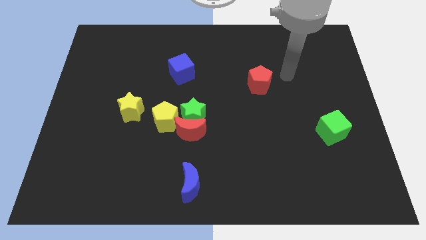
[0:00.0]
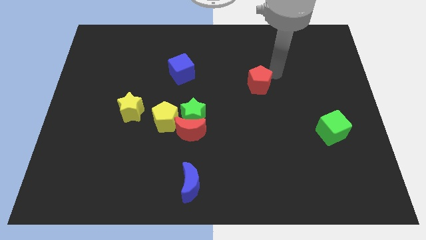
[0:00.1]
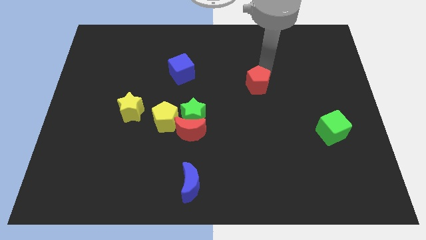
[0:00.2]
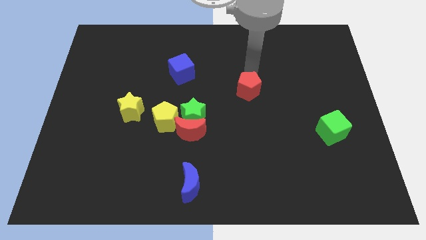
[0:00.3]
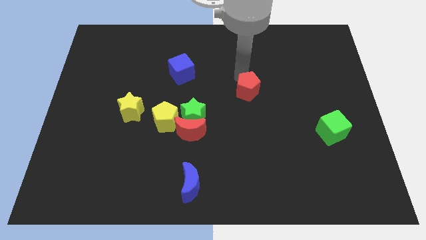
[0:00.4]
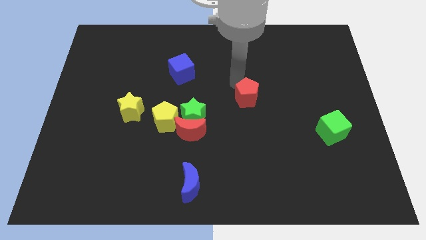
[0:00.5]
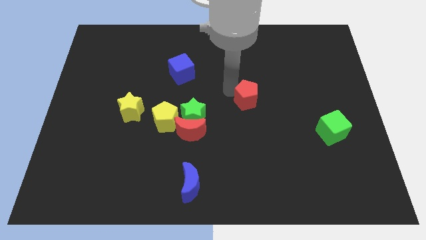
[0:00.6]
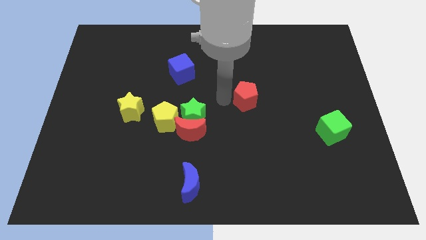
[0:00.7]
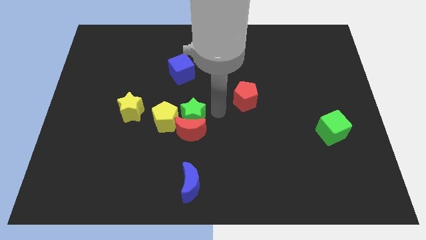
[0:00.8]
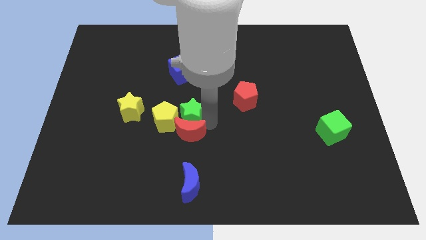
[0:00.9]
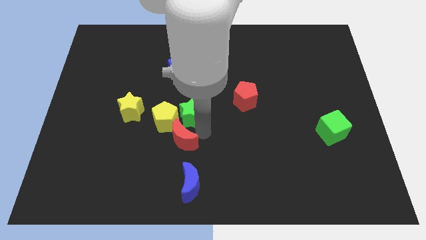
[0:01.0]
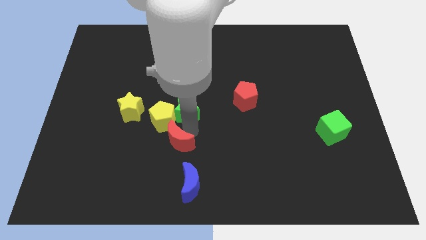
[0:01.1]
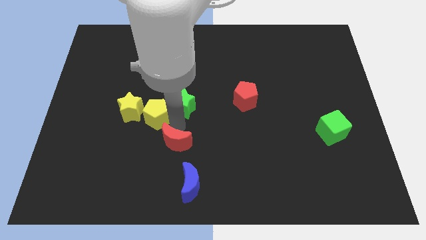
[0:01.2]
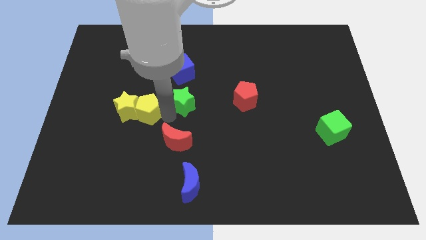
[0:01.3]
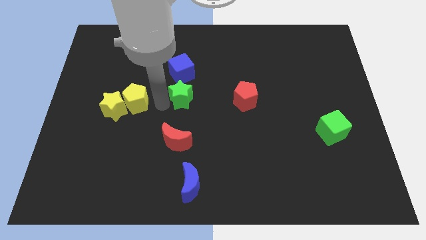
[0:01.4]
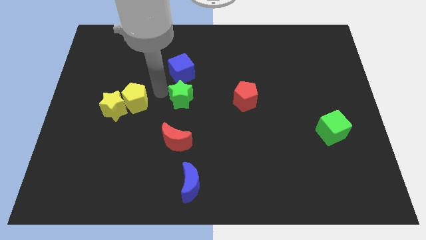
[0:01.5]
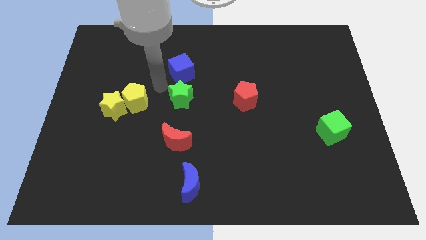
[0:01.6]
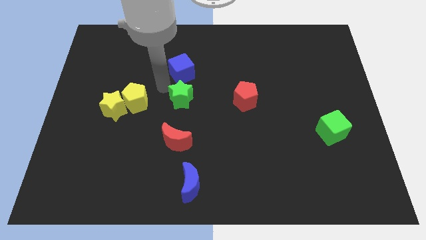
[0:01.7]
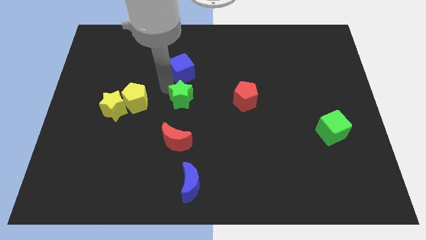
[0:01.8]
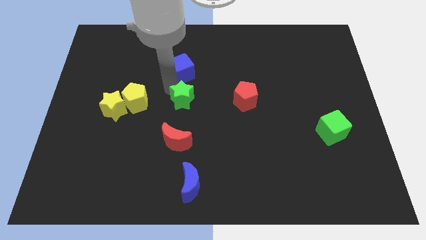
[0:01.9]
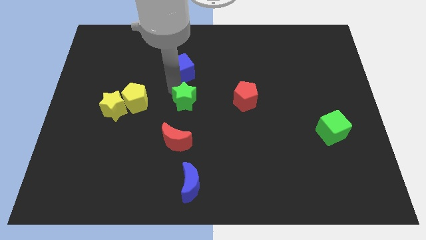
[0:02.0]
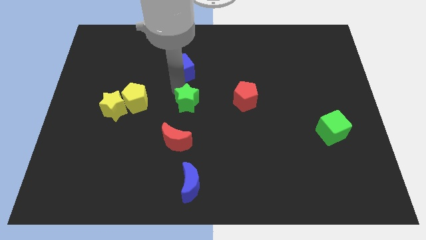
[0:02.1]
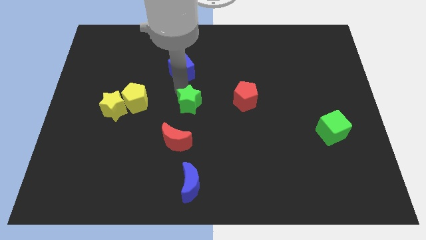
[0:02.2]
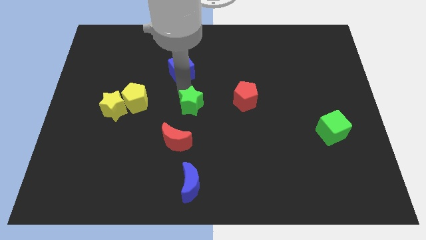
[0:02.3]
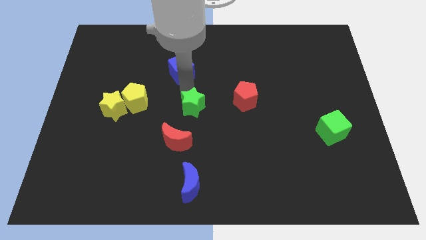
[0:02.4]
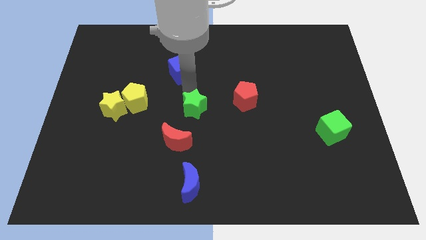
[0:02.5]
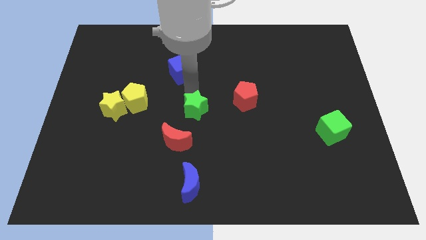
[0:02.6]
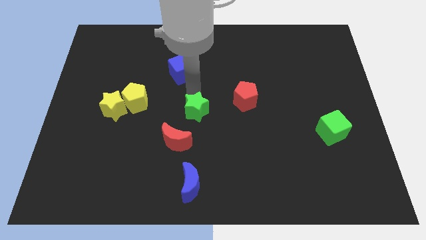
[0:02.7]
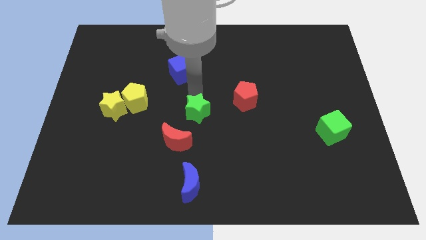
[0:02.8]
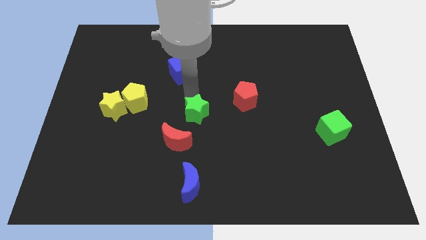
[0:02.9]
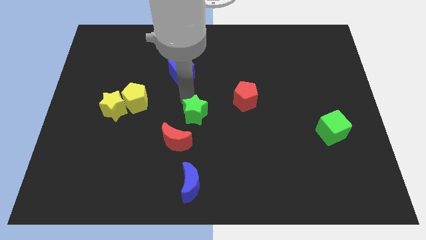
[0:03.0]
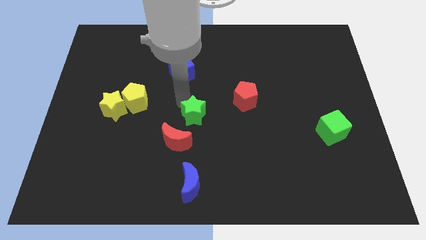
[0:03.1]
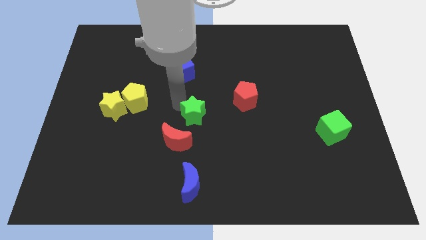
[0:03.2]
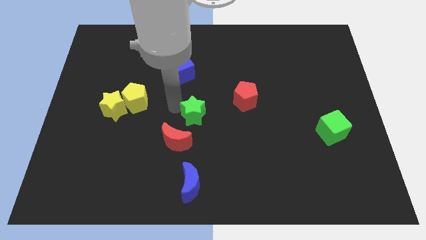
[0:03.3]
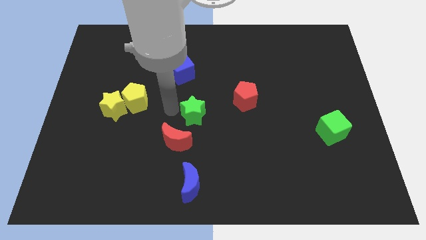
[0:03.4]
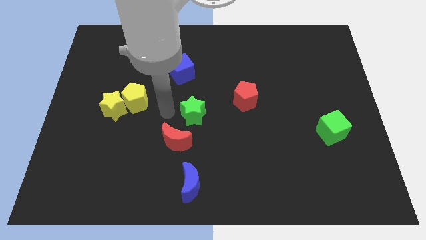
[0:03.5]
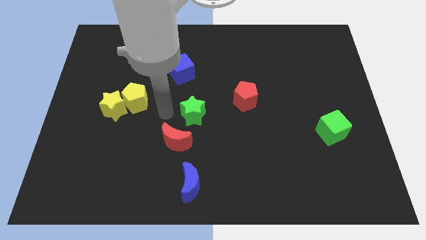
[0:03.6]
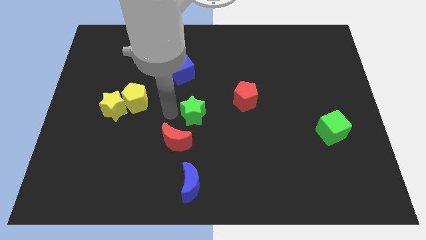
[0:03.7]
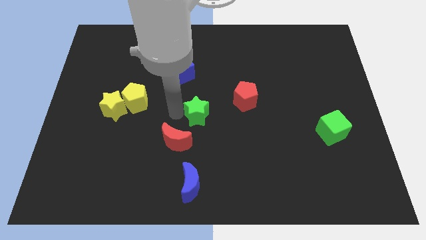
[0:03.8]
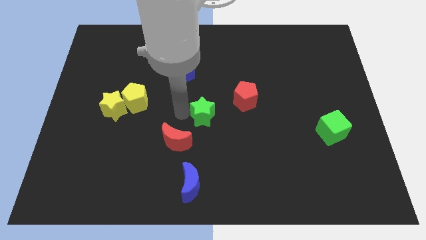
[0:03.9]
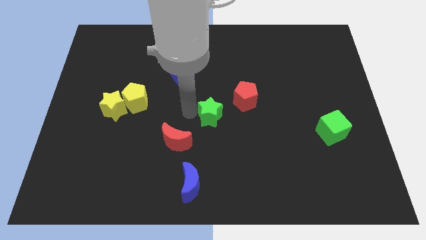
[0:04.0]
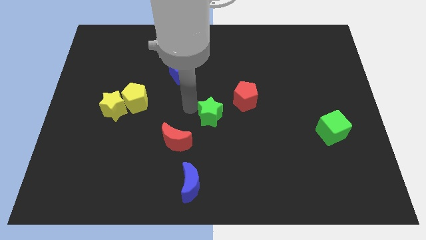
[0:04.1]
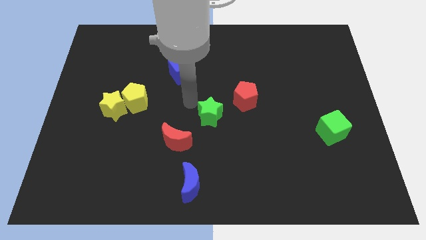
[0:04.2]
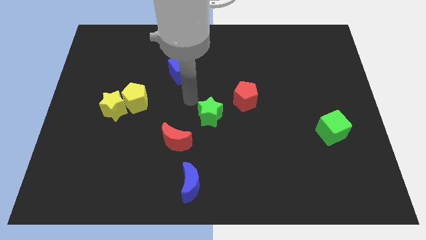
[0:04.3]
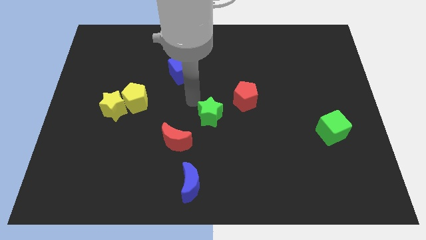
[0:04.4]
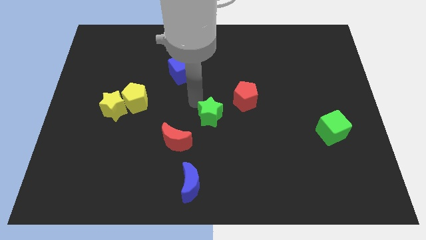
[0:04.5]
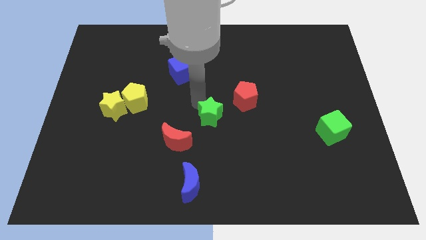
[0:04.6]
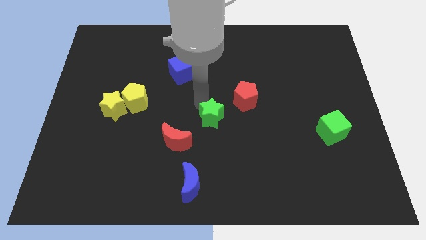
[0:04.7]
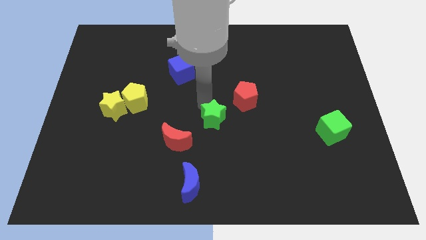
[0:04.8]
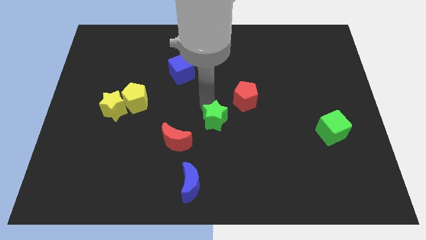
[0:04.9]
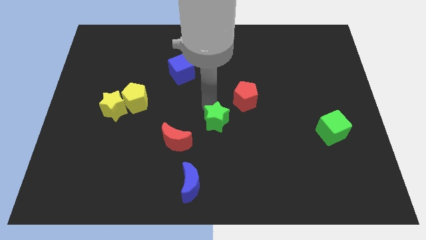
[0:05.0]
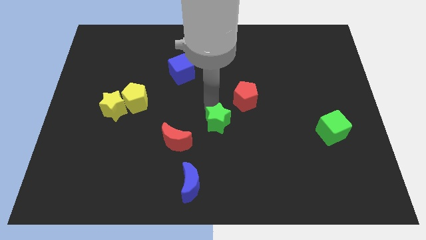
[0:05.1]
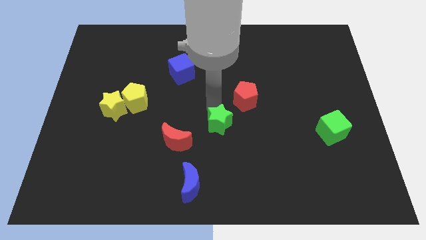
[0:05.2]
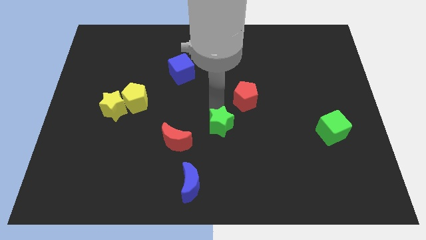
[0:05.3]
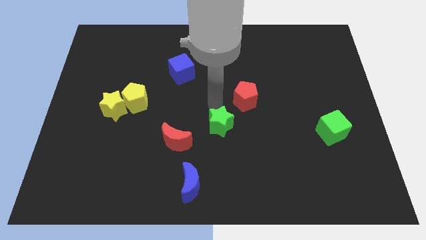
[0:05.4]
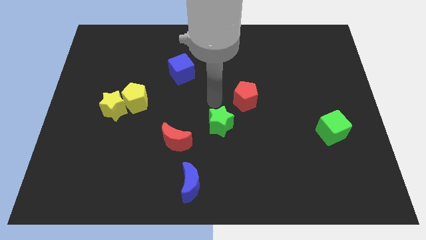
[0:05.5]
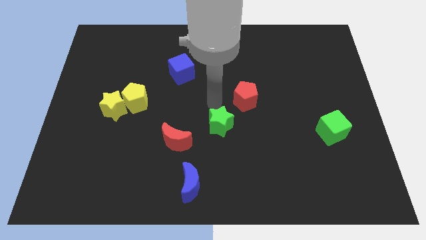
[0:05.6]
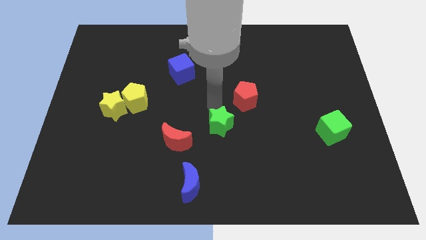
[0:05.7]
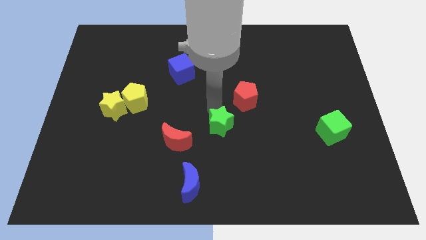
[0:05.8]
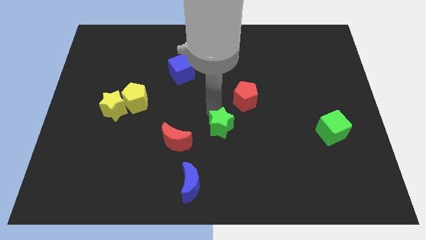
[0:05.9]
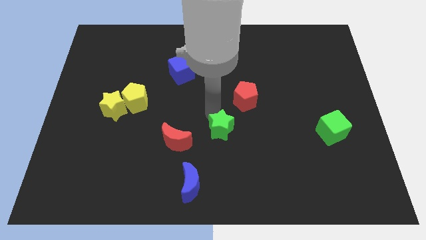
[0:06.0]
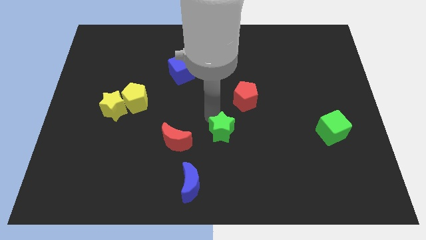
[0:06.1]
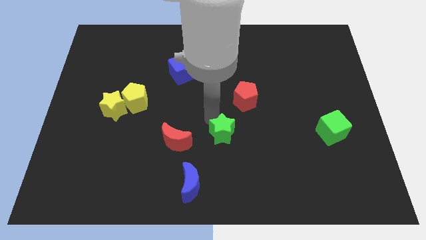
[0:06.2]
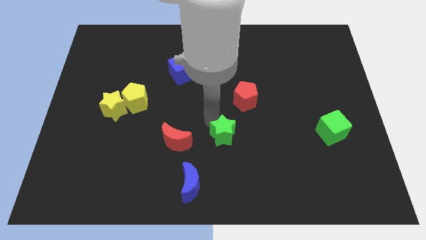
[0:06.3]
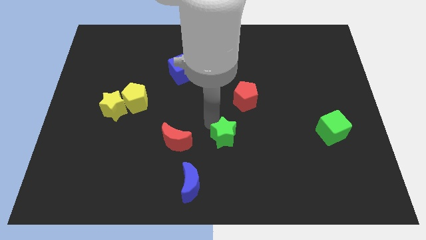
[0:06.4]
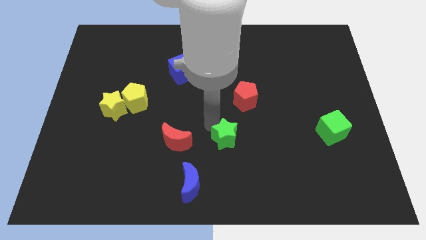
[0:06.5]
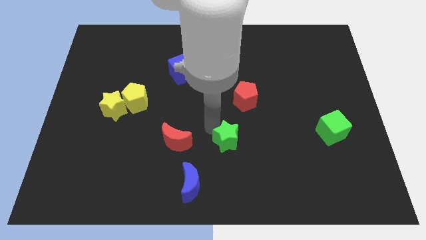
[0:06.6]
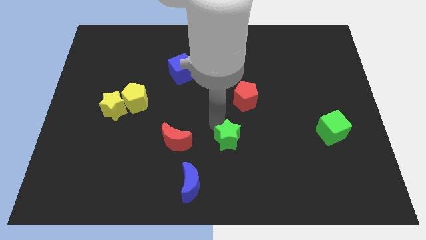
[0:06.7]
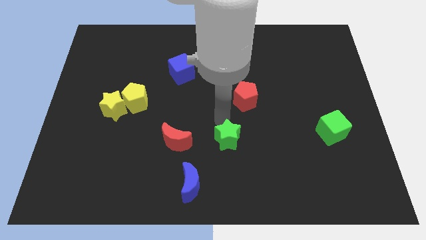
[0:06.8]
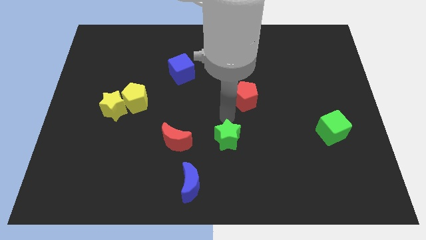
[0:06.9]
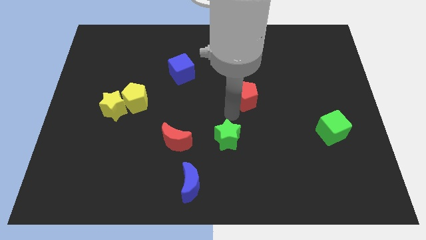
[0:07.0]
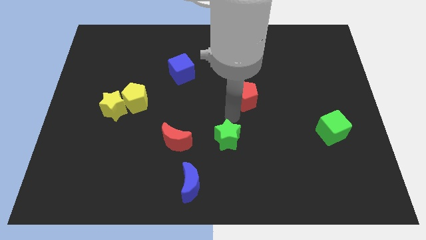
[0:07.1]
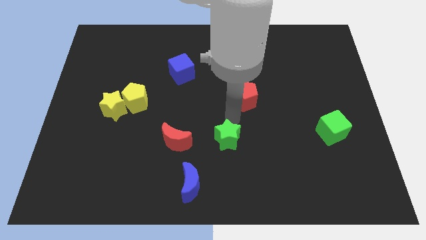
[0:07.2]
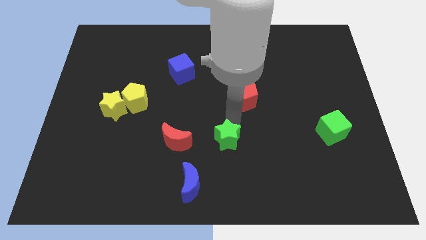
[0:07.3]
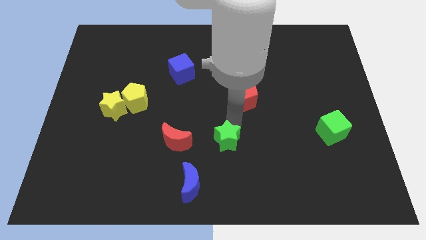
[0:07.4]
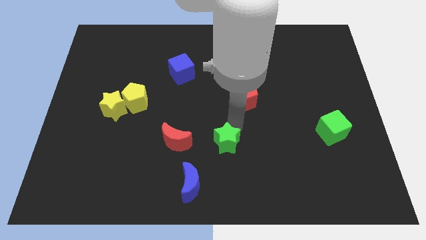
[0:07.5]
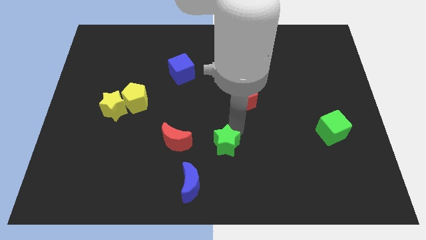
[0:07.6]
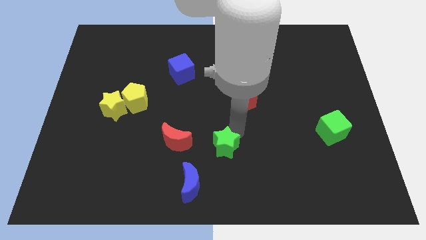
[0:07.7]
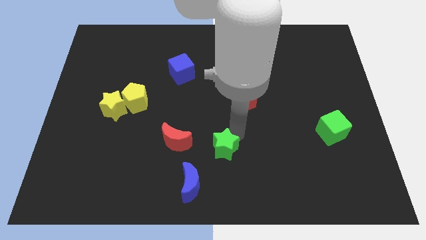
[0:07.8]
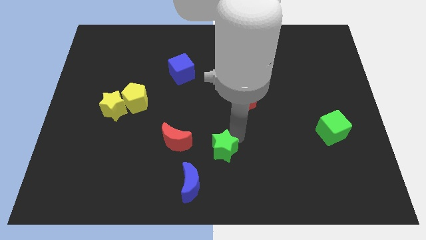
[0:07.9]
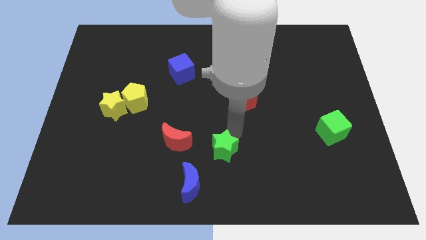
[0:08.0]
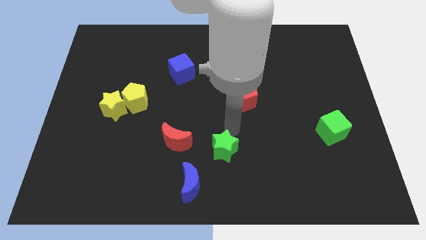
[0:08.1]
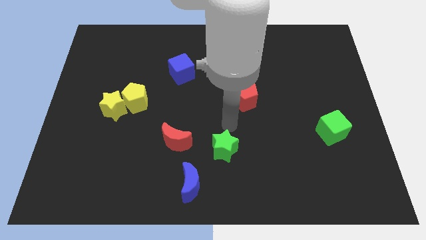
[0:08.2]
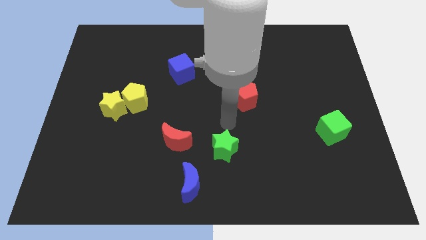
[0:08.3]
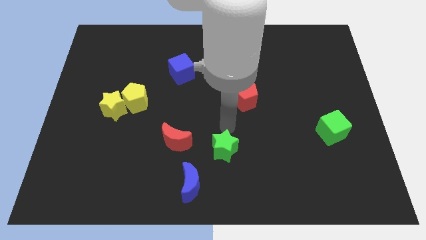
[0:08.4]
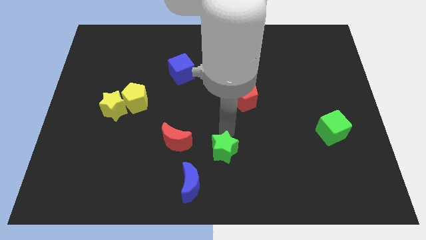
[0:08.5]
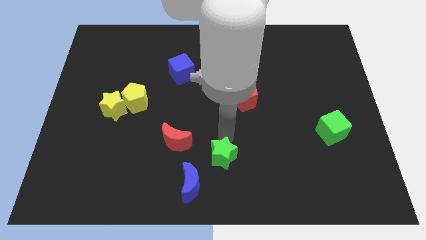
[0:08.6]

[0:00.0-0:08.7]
push the green star to the bottom
